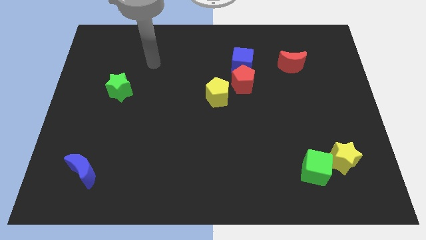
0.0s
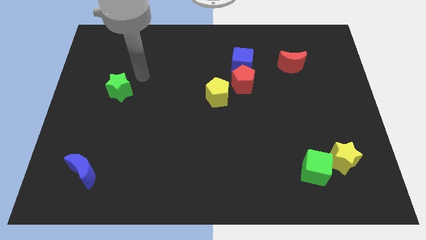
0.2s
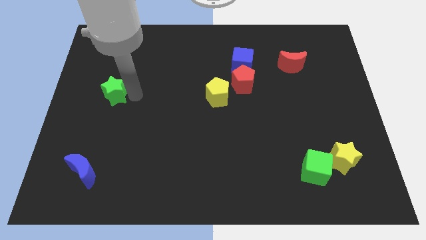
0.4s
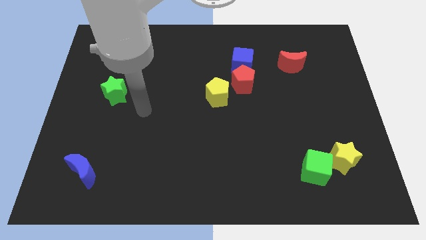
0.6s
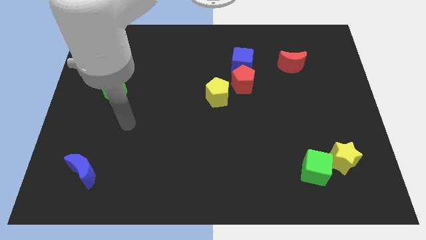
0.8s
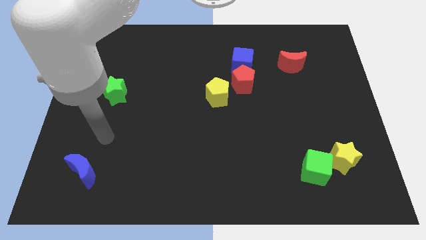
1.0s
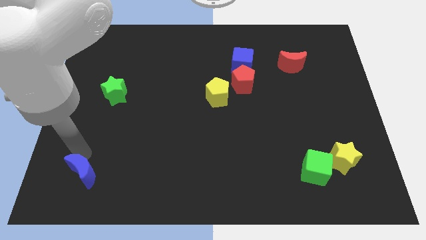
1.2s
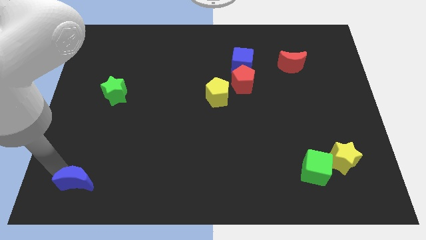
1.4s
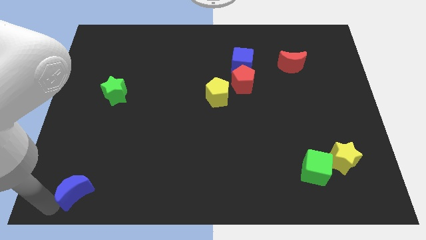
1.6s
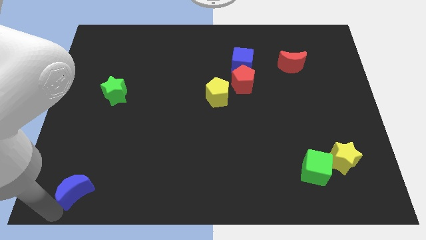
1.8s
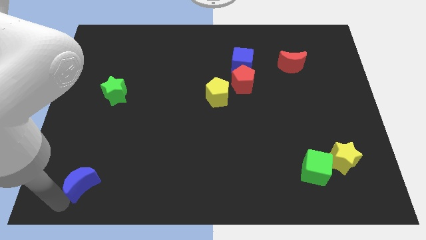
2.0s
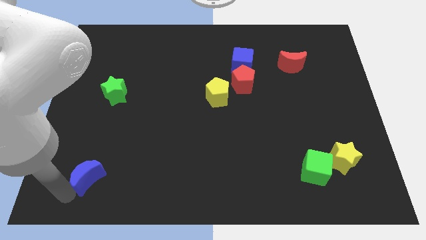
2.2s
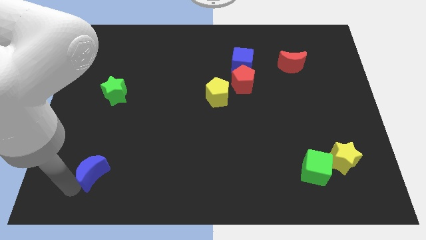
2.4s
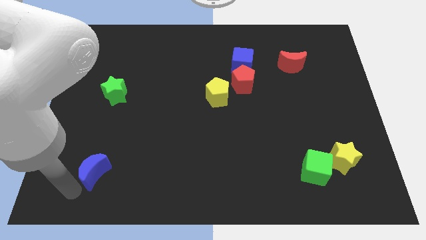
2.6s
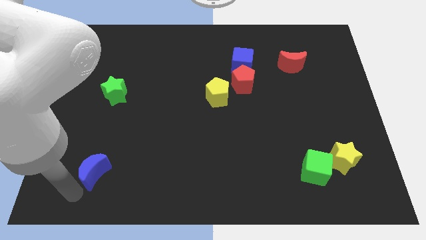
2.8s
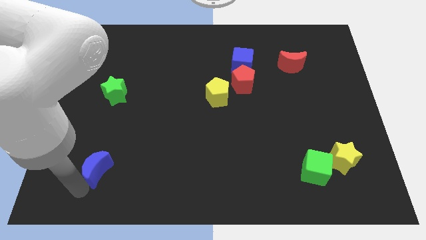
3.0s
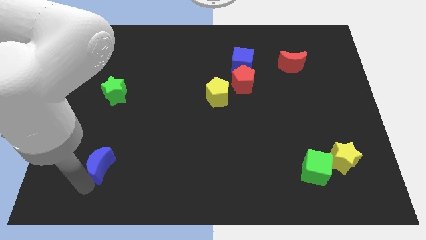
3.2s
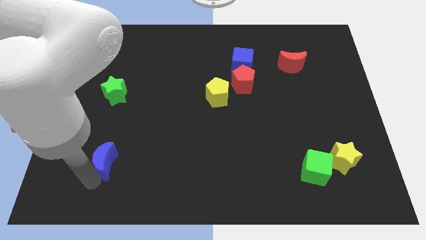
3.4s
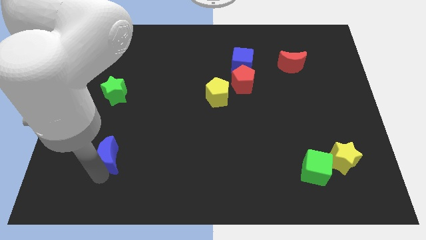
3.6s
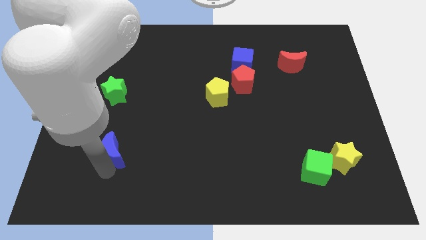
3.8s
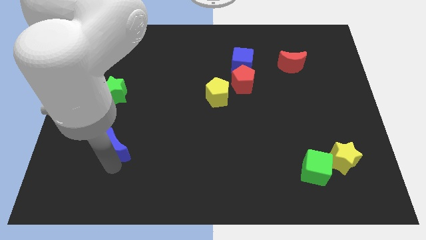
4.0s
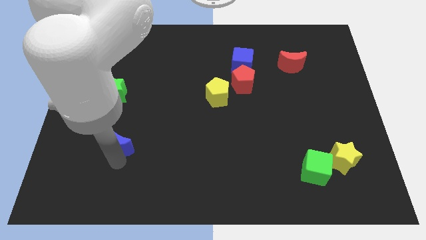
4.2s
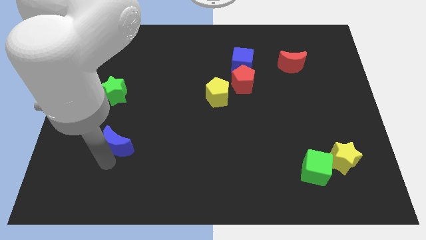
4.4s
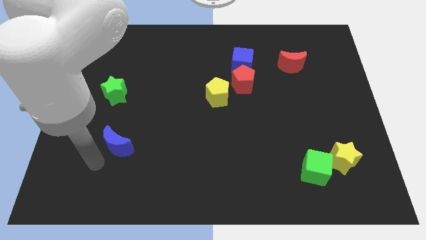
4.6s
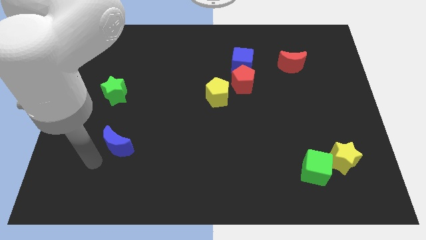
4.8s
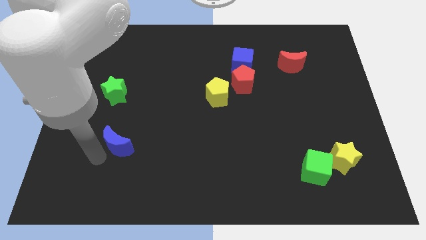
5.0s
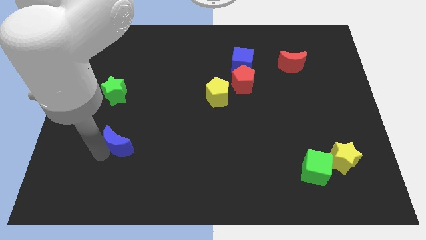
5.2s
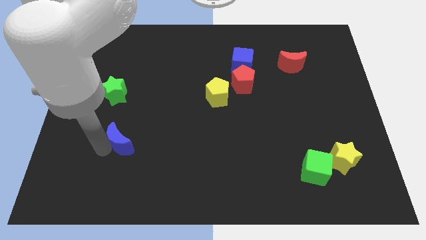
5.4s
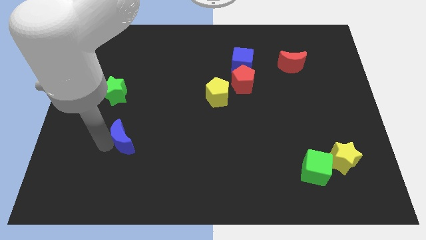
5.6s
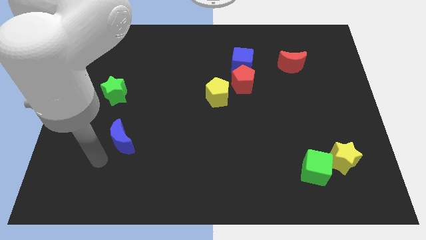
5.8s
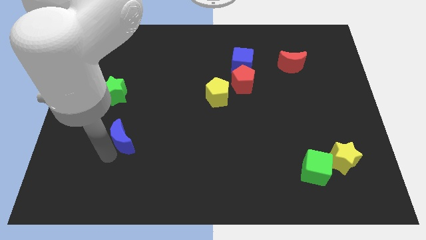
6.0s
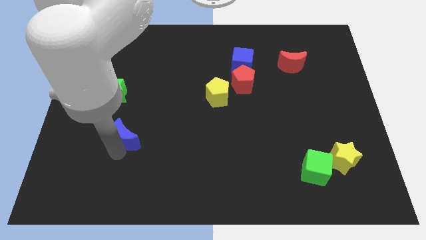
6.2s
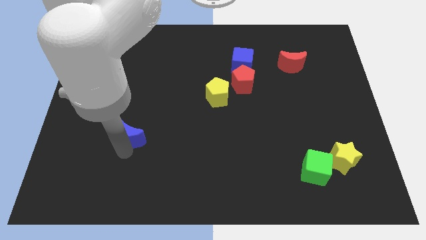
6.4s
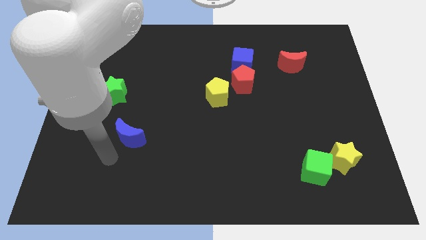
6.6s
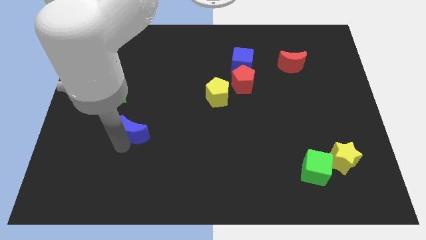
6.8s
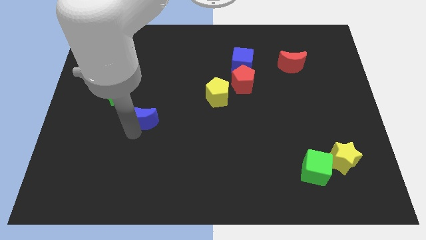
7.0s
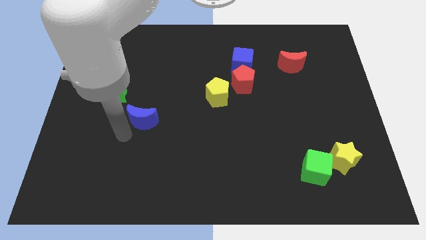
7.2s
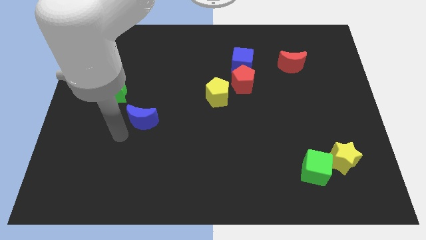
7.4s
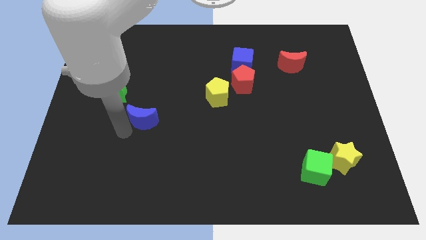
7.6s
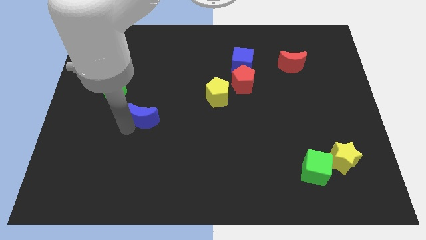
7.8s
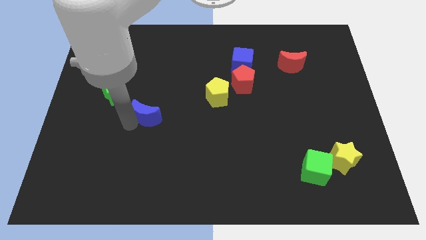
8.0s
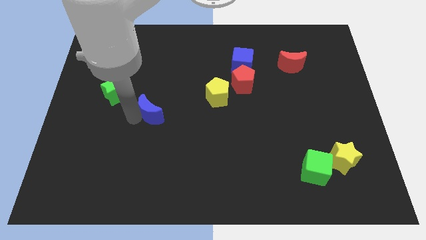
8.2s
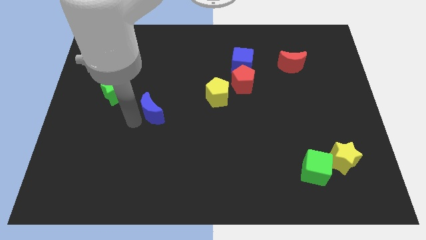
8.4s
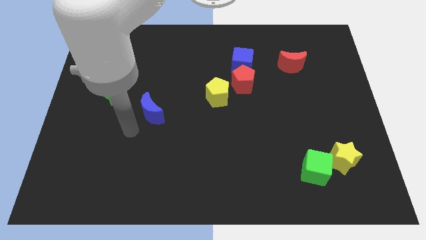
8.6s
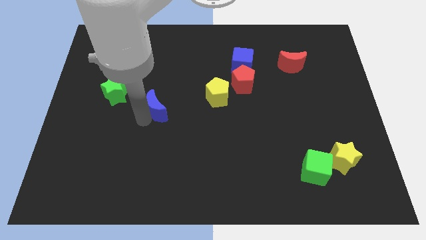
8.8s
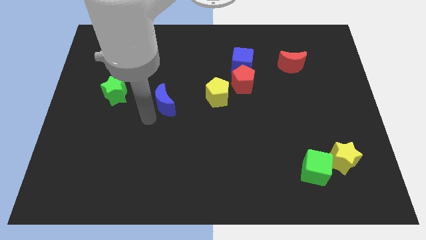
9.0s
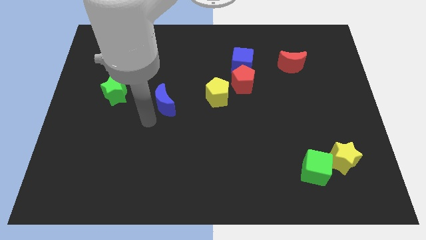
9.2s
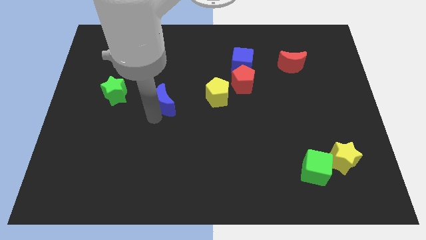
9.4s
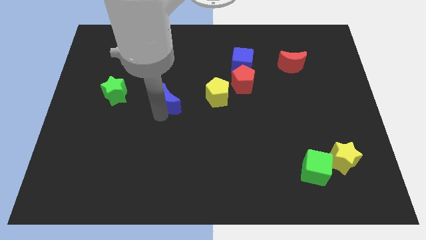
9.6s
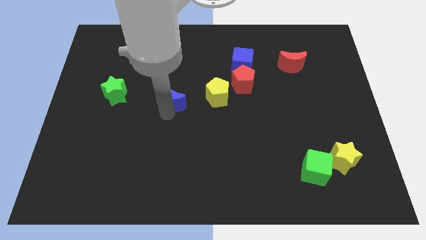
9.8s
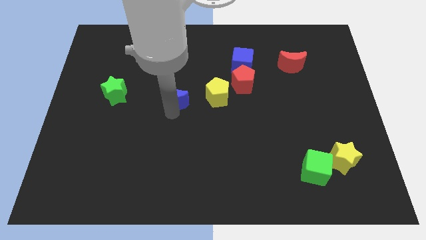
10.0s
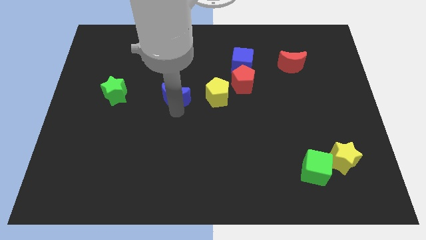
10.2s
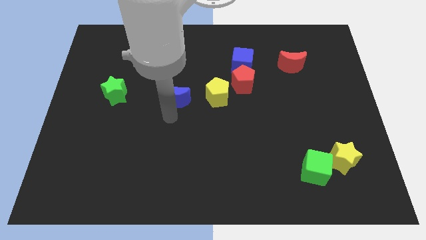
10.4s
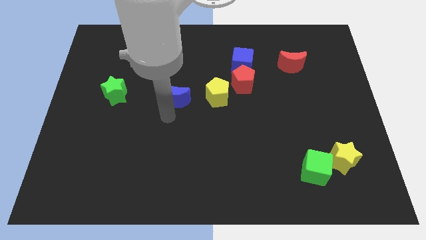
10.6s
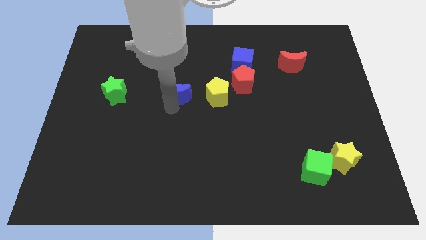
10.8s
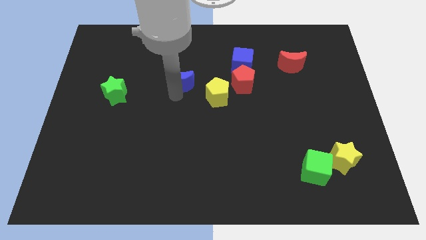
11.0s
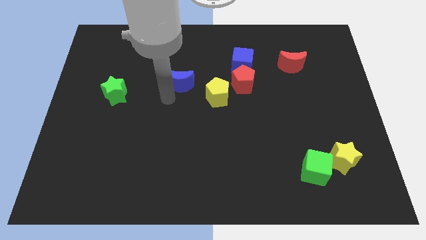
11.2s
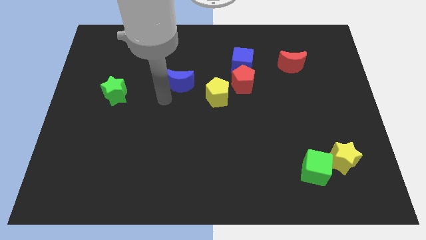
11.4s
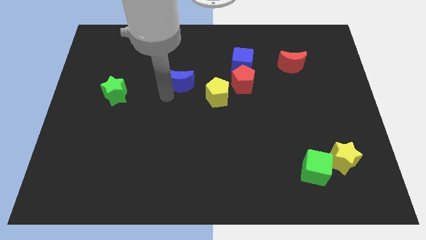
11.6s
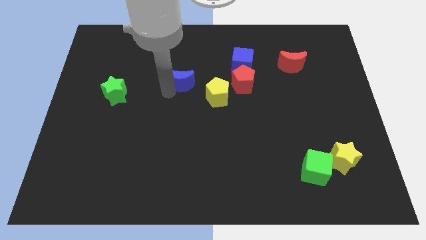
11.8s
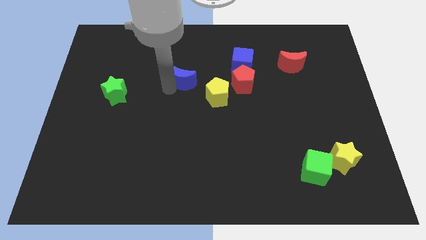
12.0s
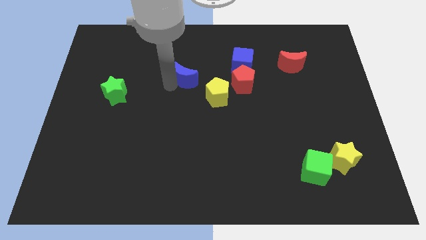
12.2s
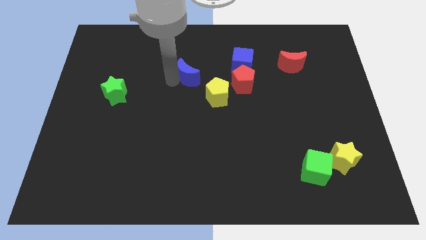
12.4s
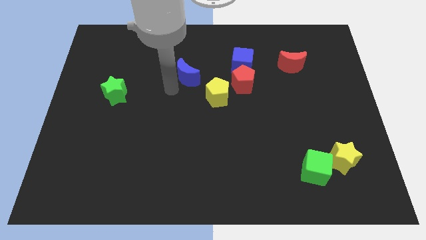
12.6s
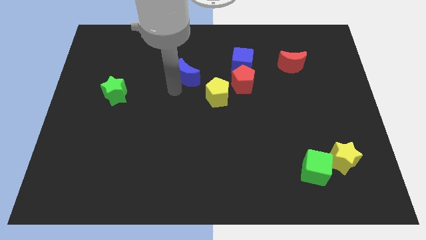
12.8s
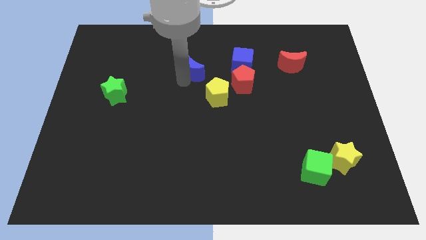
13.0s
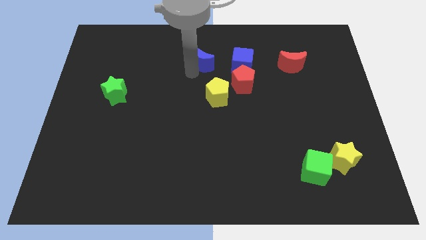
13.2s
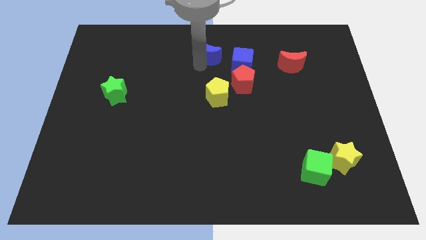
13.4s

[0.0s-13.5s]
push the blue moon to the top side
